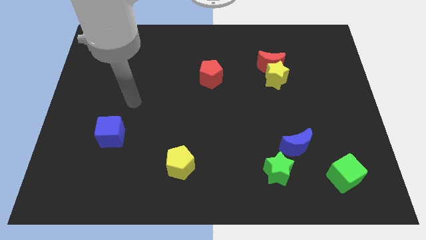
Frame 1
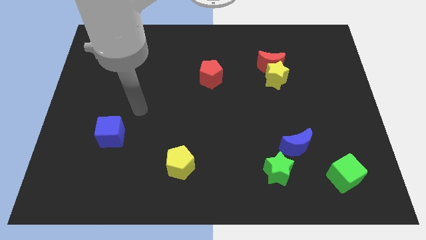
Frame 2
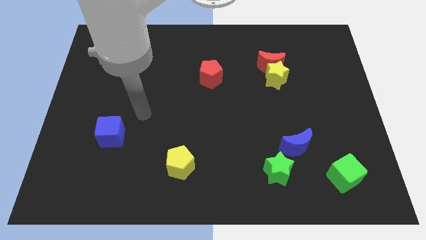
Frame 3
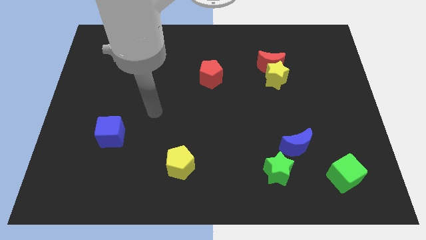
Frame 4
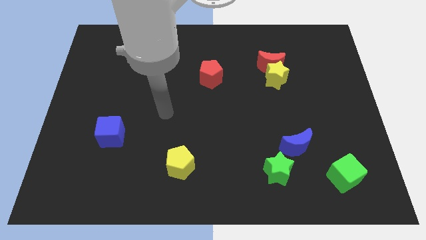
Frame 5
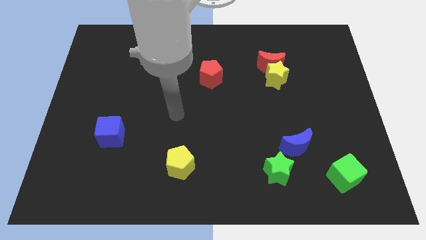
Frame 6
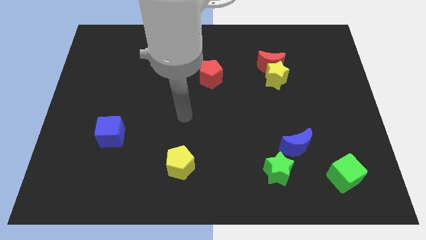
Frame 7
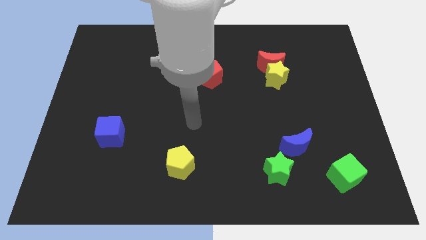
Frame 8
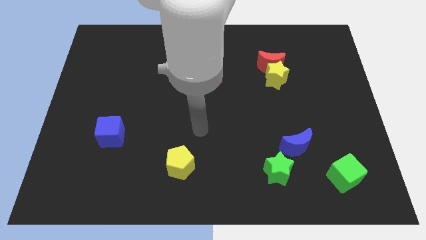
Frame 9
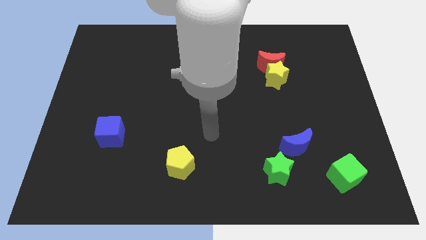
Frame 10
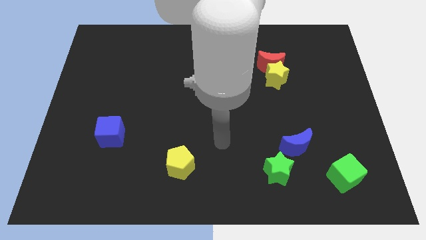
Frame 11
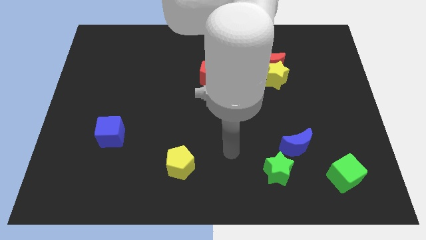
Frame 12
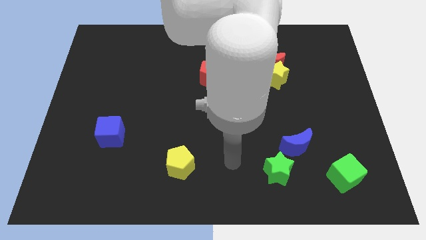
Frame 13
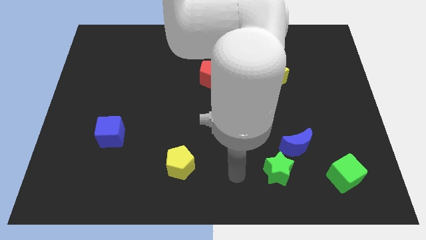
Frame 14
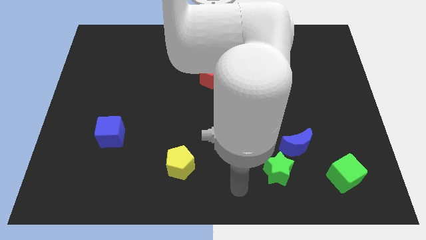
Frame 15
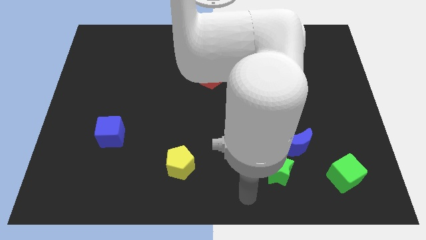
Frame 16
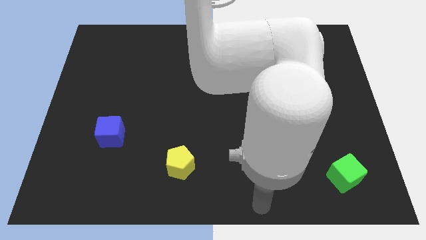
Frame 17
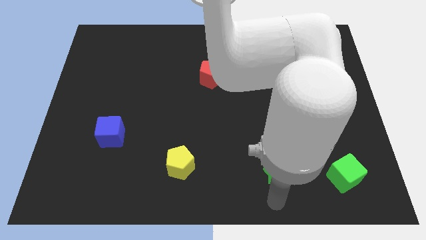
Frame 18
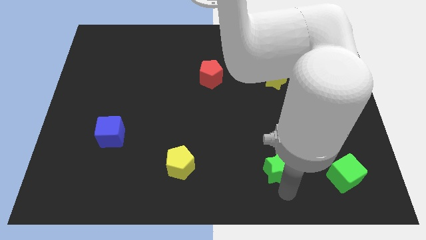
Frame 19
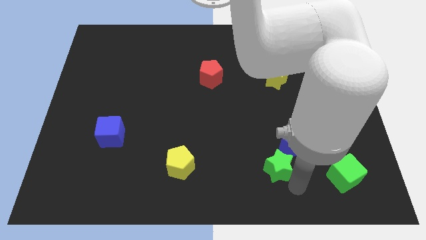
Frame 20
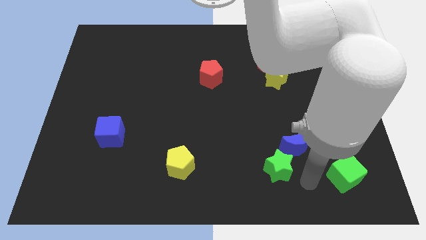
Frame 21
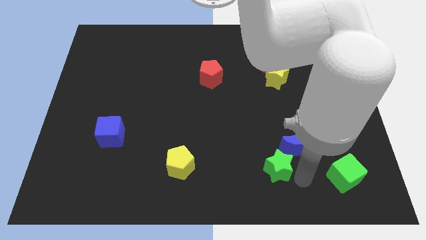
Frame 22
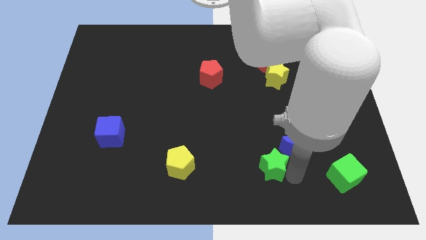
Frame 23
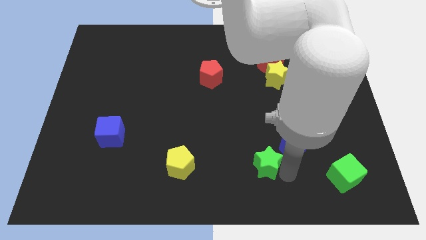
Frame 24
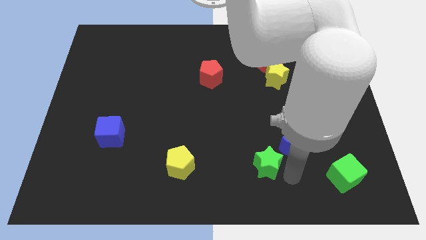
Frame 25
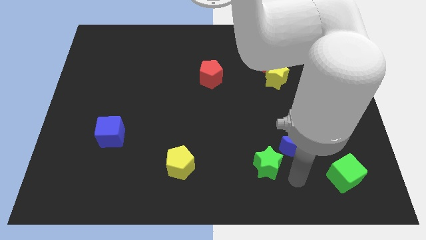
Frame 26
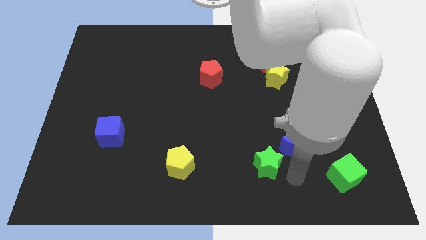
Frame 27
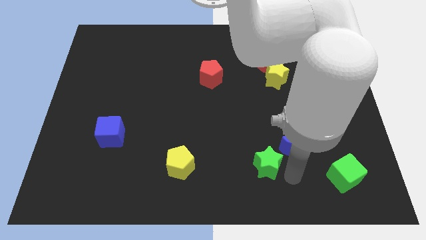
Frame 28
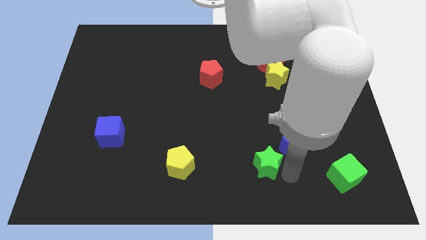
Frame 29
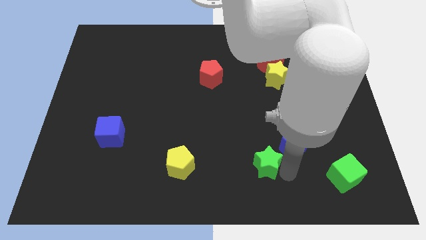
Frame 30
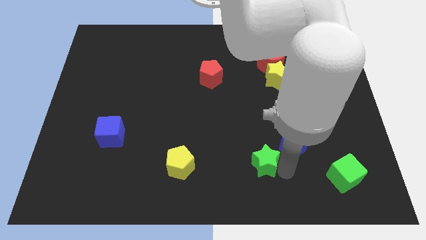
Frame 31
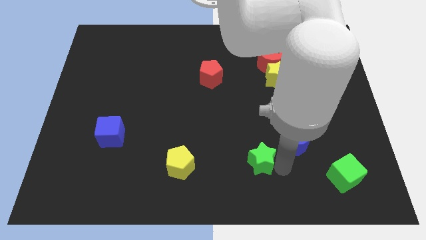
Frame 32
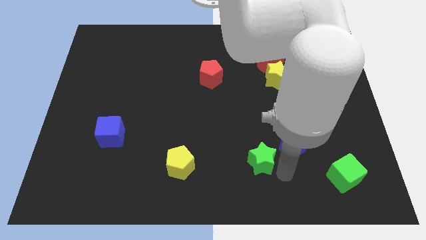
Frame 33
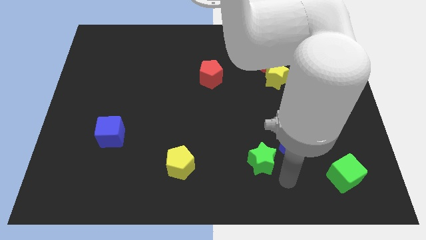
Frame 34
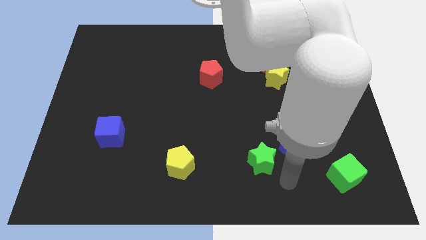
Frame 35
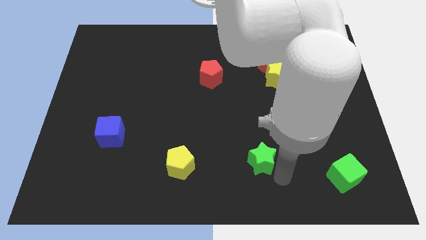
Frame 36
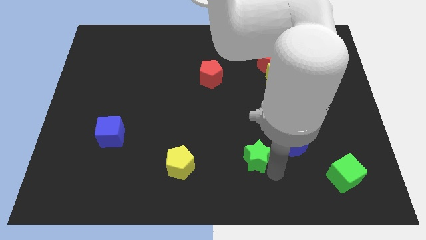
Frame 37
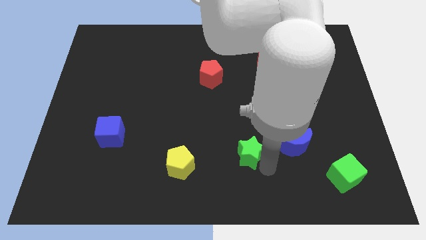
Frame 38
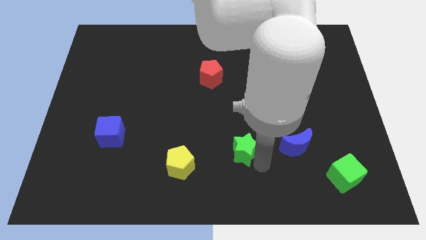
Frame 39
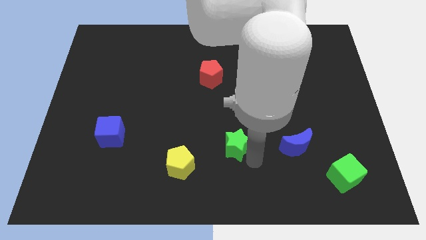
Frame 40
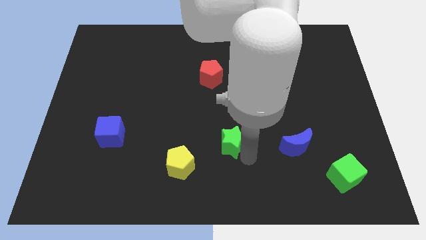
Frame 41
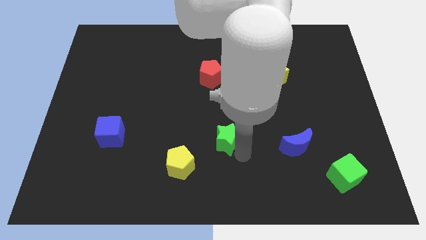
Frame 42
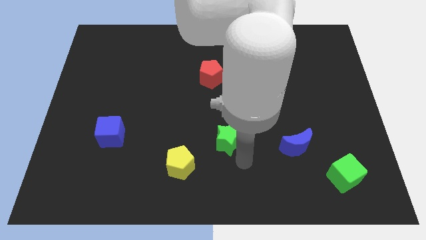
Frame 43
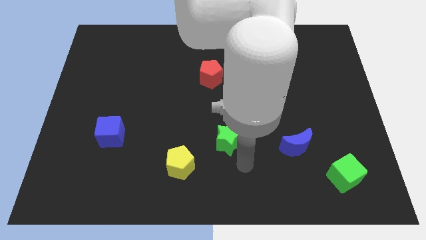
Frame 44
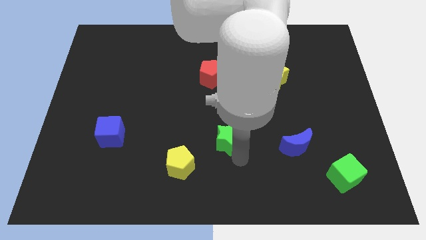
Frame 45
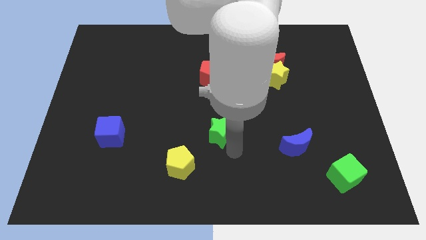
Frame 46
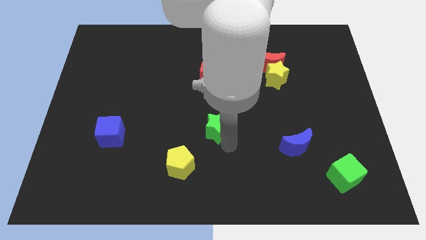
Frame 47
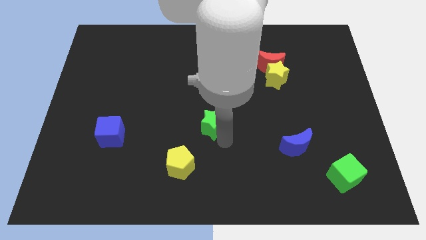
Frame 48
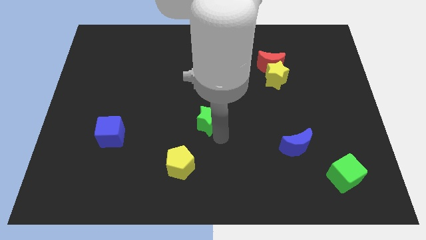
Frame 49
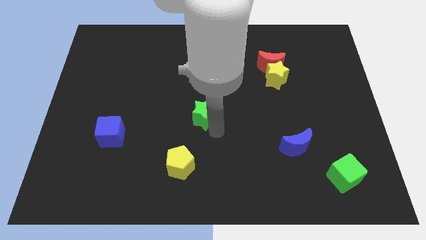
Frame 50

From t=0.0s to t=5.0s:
move the green star diagonally up and to the left

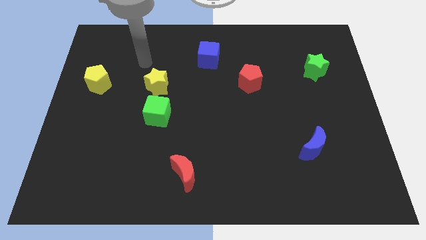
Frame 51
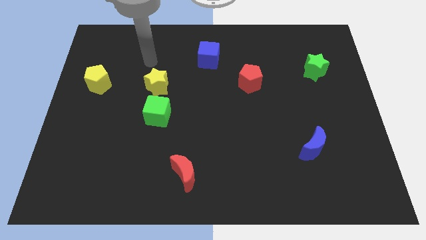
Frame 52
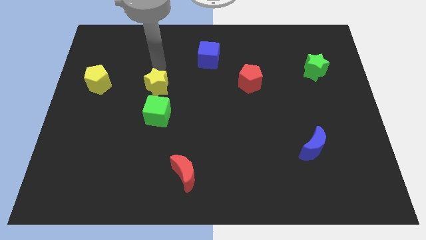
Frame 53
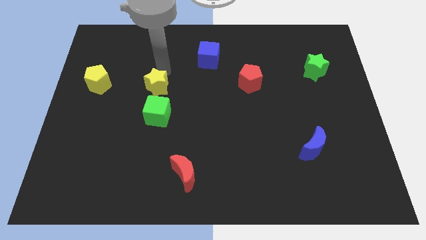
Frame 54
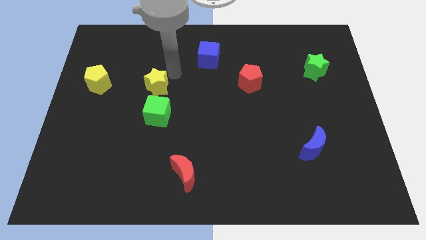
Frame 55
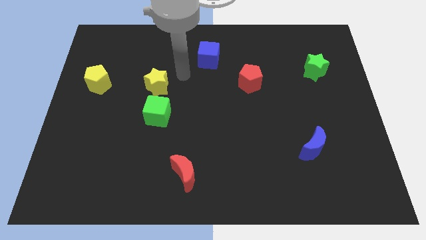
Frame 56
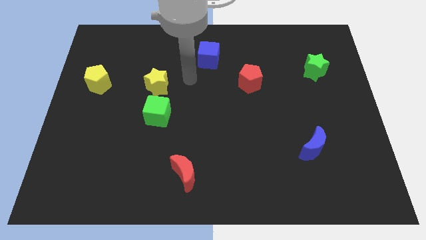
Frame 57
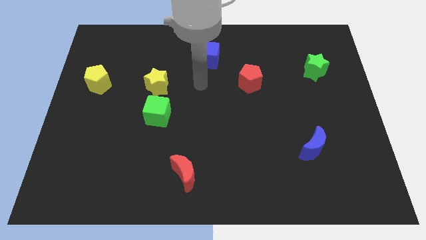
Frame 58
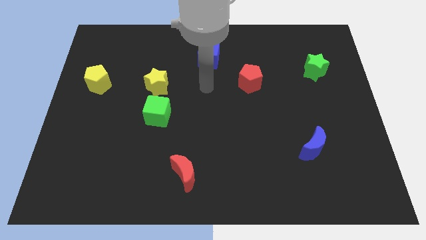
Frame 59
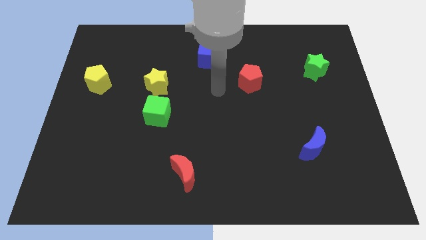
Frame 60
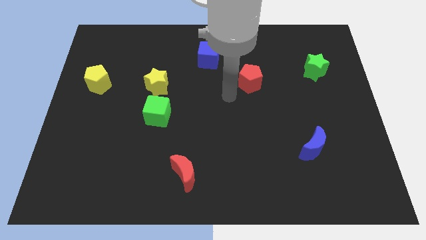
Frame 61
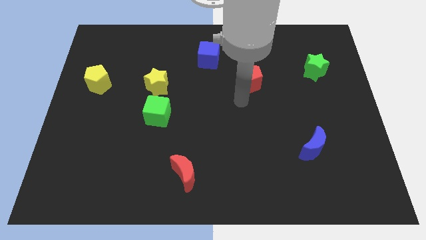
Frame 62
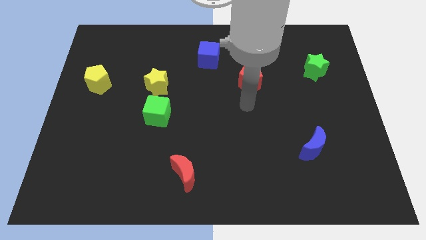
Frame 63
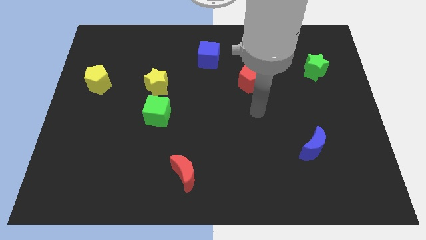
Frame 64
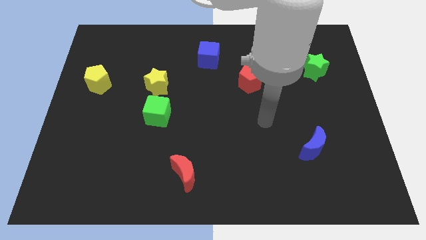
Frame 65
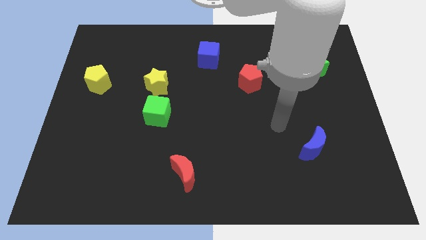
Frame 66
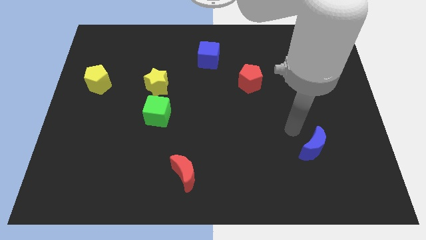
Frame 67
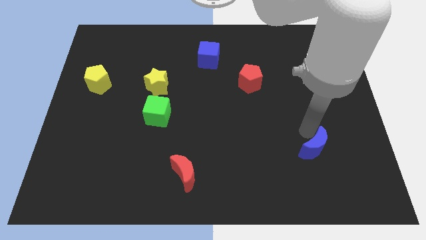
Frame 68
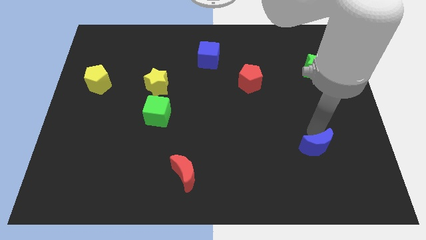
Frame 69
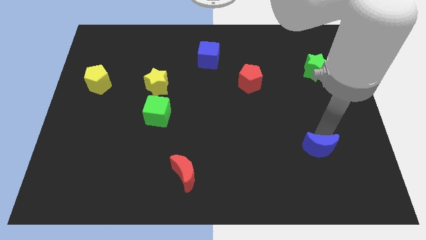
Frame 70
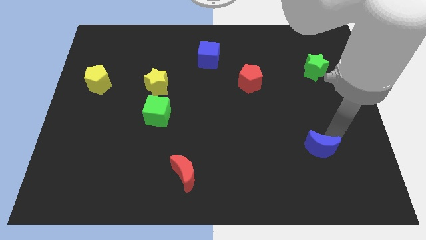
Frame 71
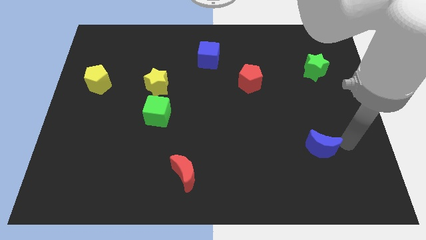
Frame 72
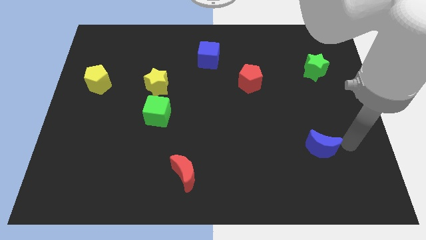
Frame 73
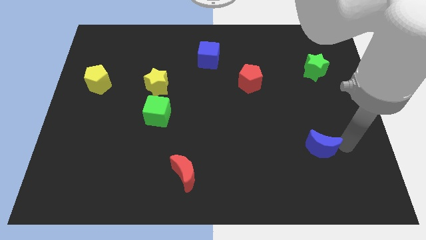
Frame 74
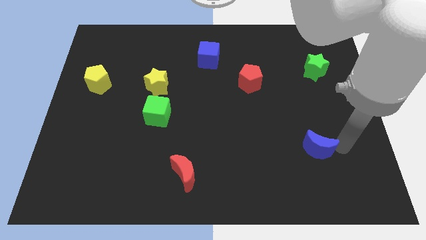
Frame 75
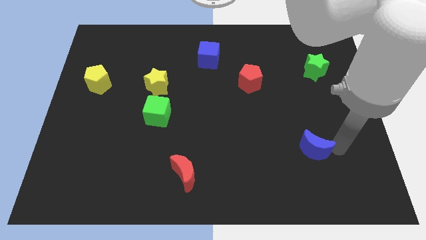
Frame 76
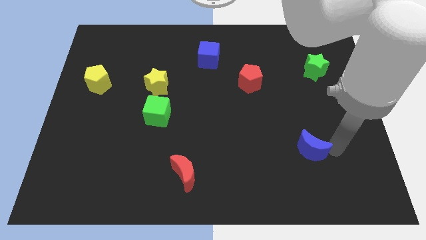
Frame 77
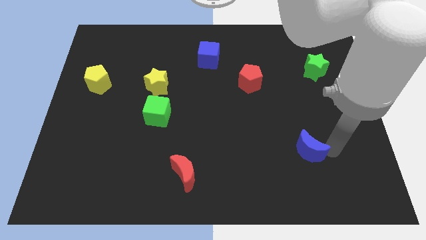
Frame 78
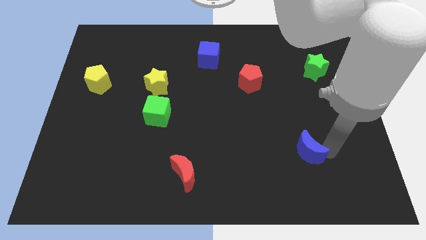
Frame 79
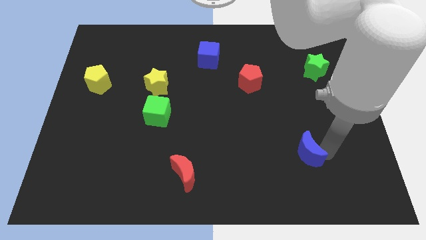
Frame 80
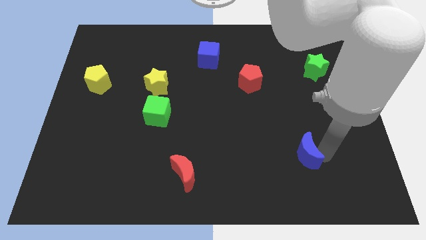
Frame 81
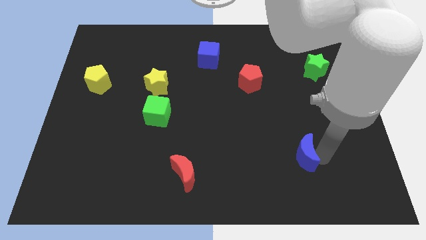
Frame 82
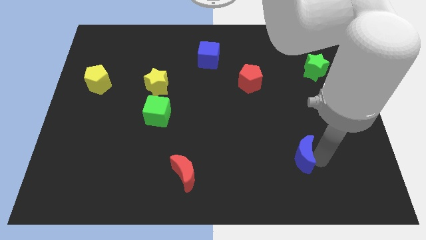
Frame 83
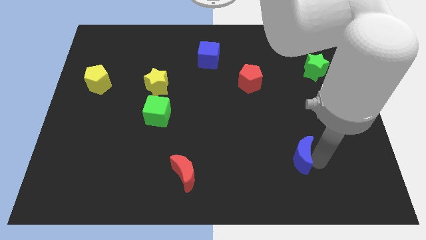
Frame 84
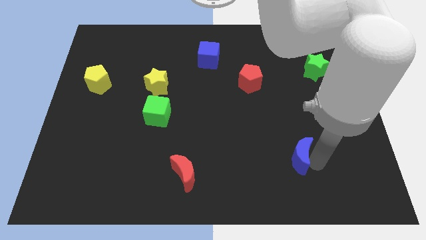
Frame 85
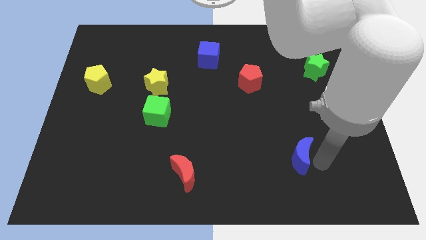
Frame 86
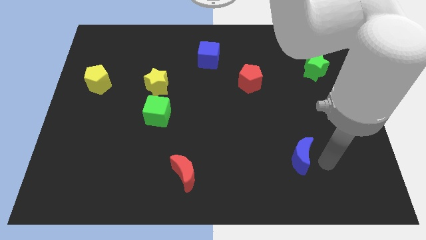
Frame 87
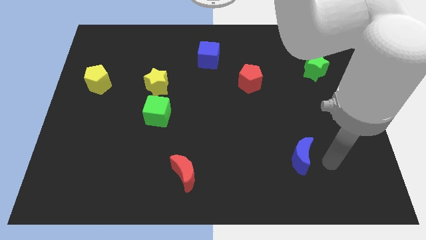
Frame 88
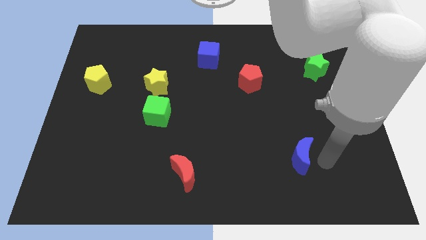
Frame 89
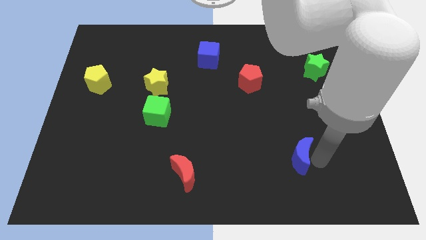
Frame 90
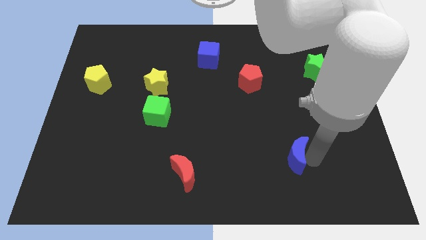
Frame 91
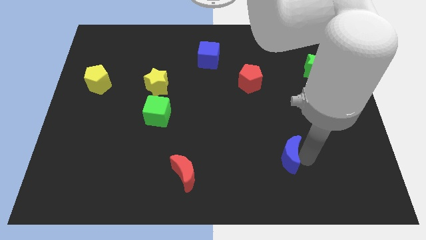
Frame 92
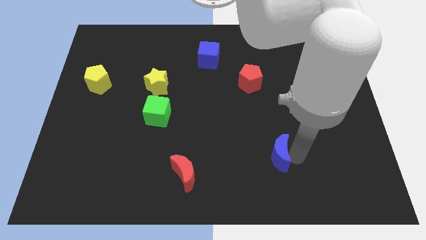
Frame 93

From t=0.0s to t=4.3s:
move the blue moon slightly left
